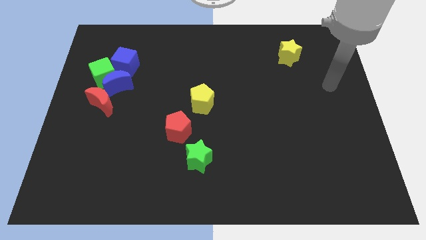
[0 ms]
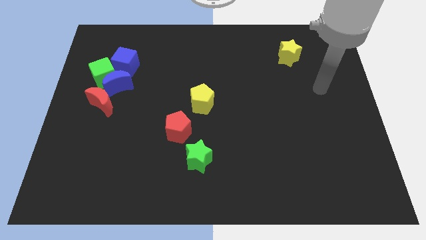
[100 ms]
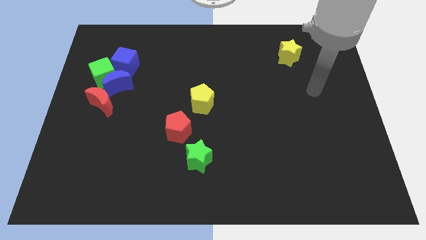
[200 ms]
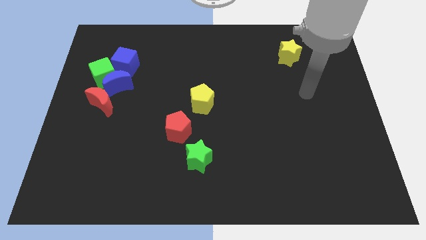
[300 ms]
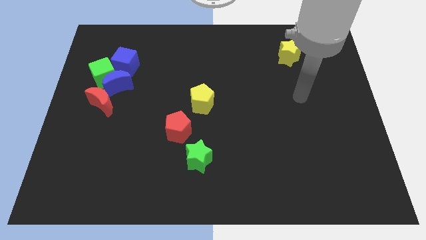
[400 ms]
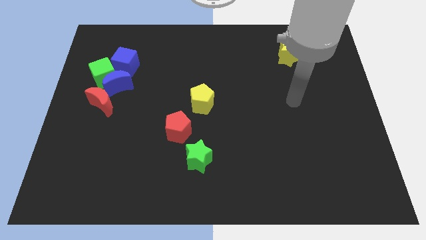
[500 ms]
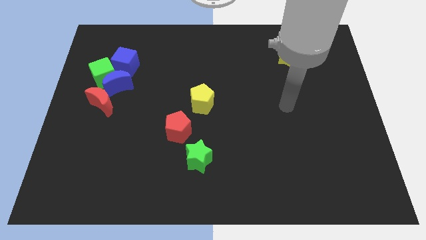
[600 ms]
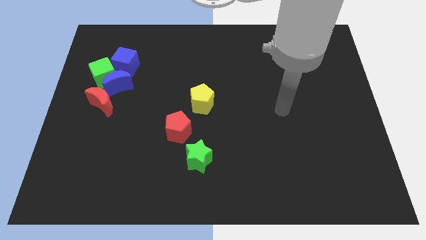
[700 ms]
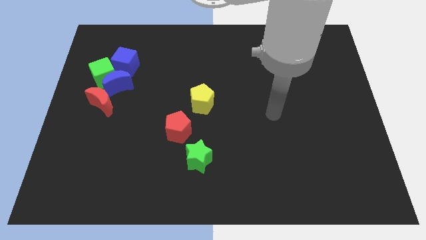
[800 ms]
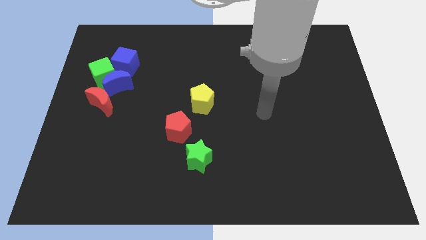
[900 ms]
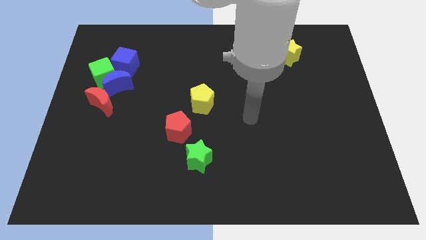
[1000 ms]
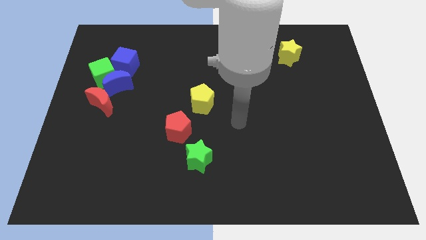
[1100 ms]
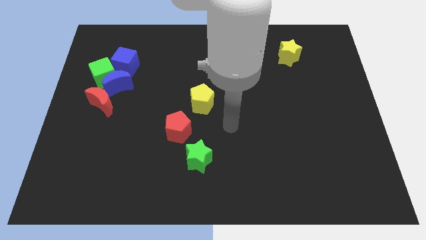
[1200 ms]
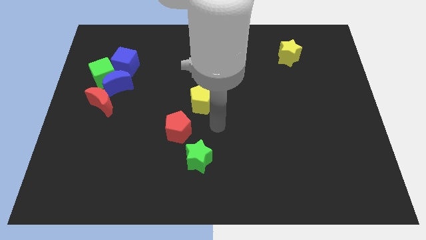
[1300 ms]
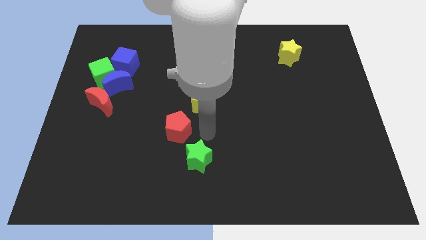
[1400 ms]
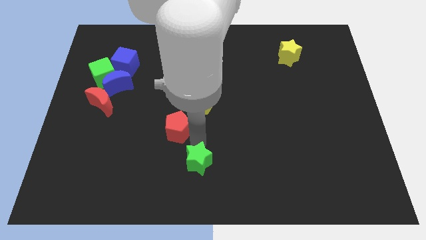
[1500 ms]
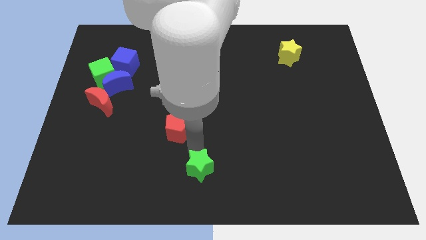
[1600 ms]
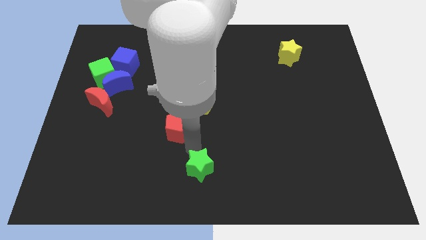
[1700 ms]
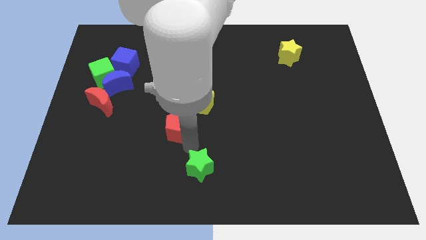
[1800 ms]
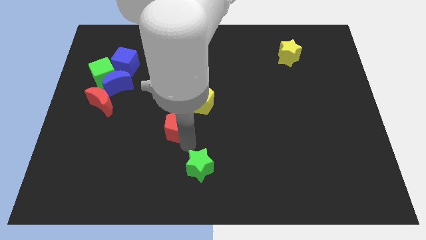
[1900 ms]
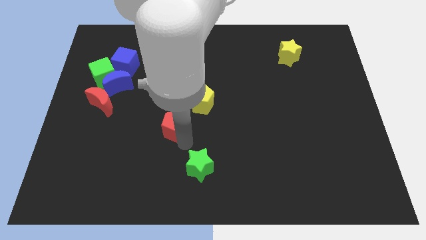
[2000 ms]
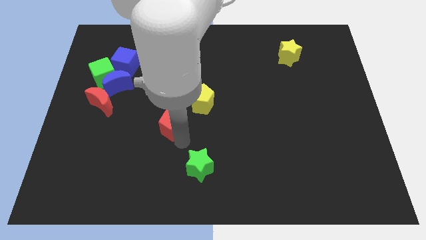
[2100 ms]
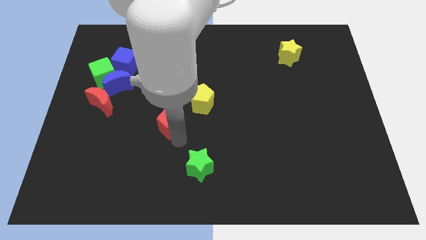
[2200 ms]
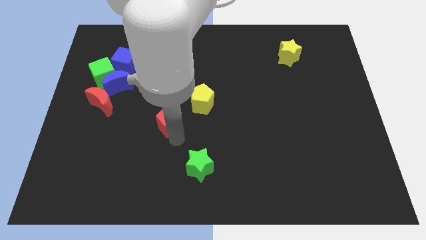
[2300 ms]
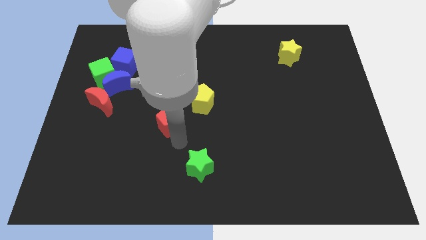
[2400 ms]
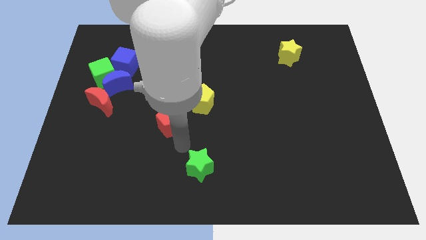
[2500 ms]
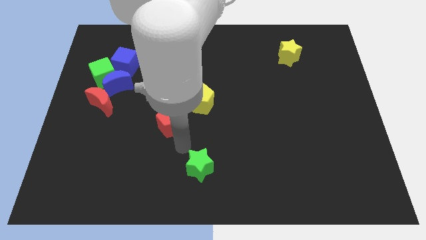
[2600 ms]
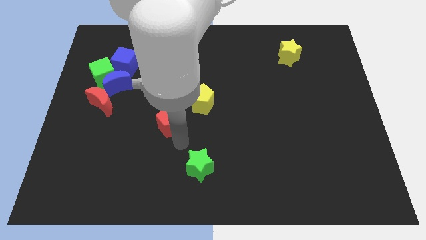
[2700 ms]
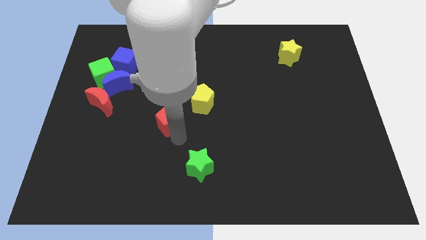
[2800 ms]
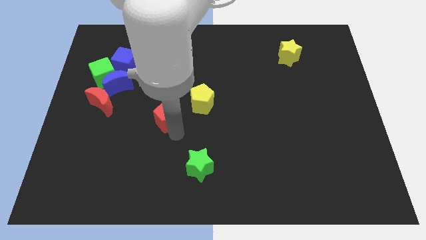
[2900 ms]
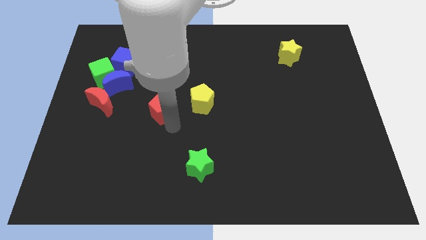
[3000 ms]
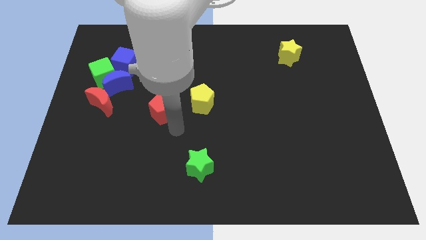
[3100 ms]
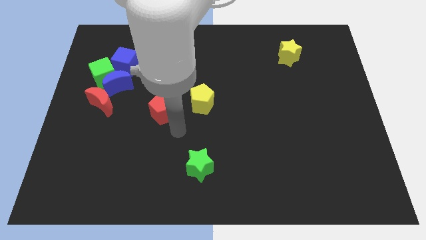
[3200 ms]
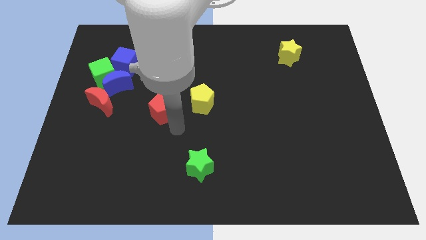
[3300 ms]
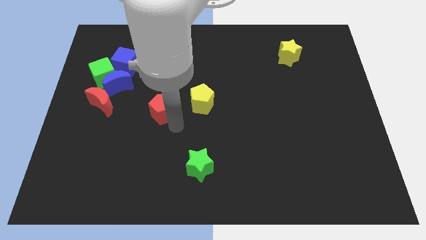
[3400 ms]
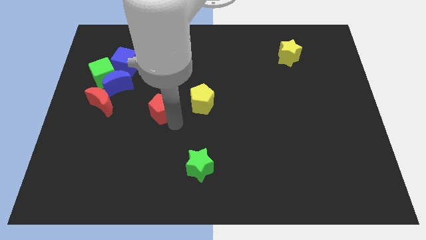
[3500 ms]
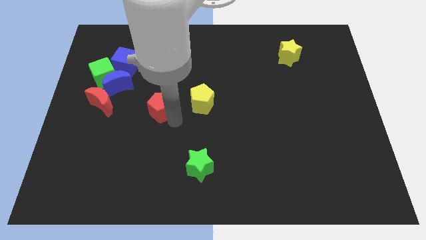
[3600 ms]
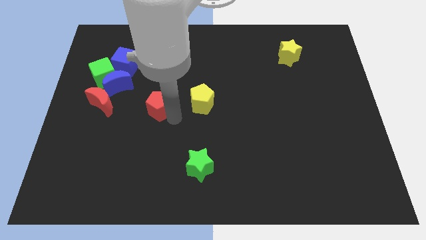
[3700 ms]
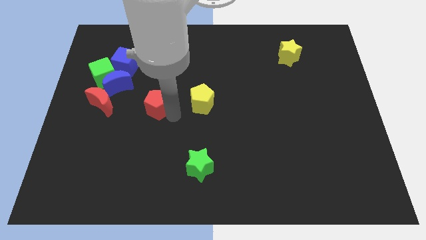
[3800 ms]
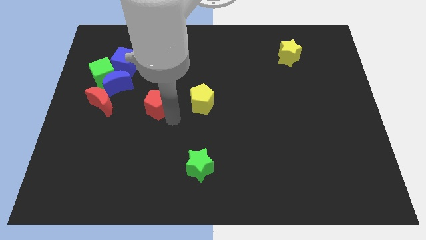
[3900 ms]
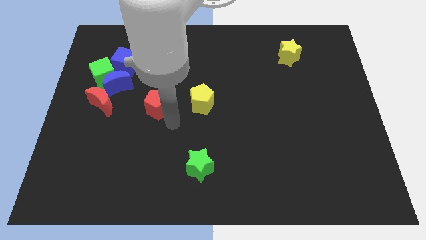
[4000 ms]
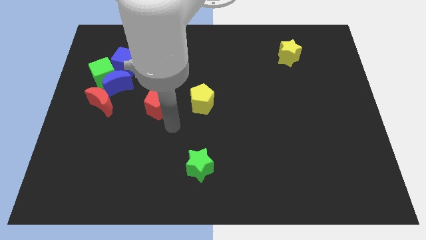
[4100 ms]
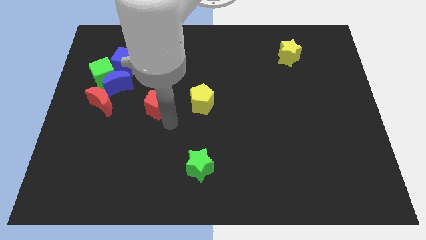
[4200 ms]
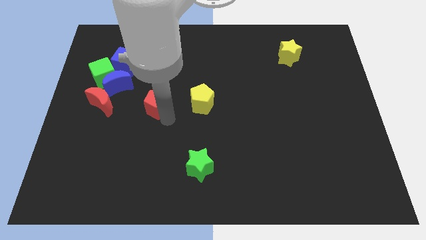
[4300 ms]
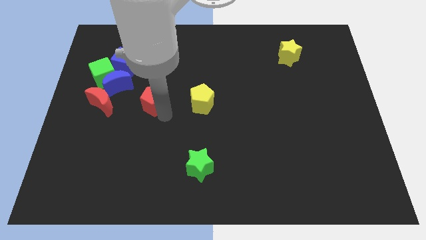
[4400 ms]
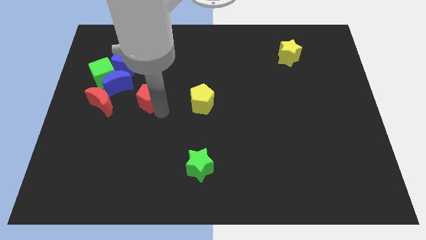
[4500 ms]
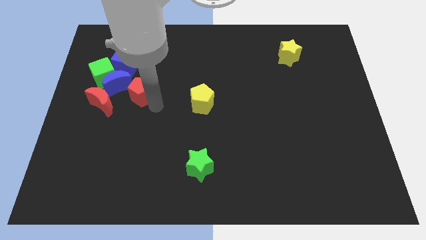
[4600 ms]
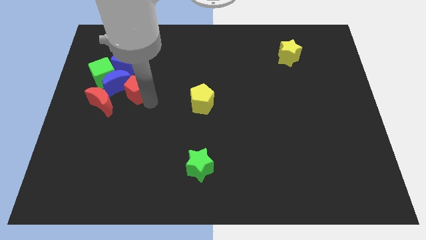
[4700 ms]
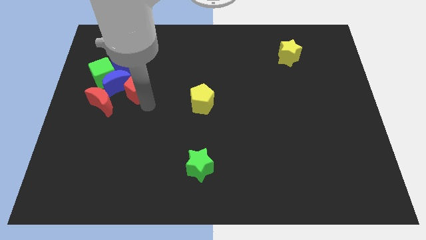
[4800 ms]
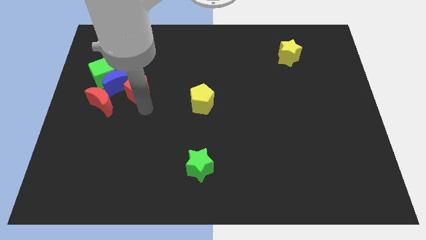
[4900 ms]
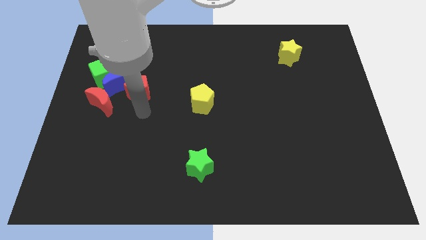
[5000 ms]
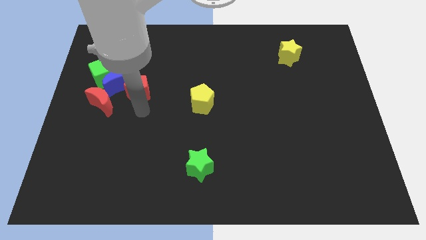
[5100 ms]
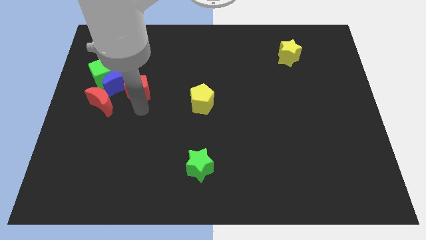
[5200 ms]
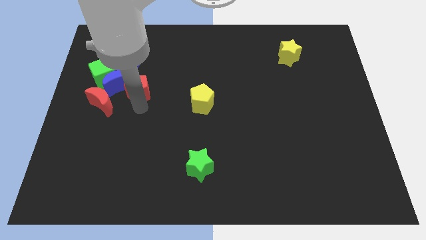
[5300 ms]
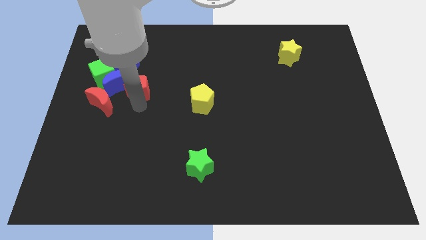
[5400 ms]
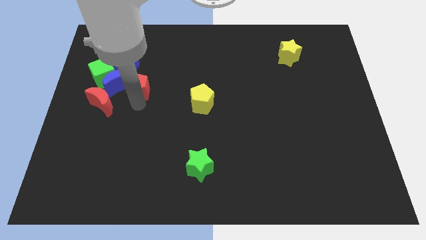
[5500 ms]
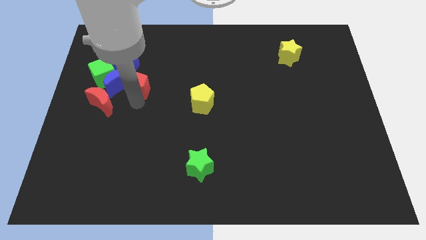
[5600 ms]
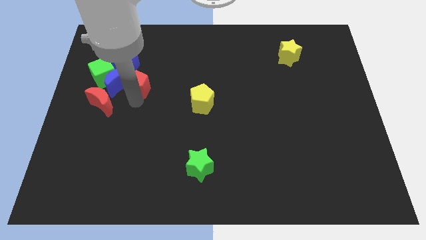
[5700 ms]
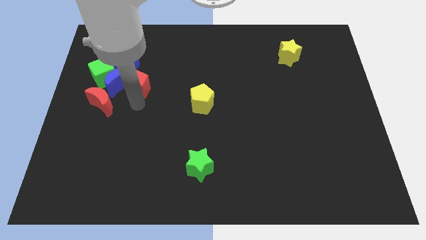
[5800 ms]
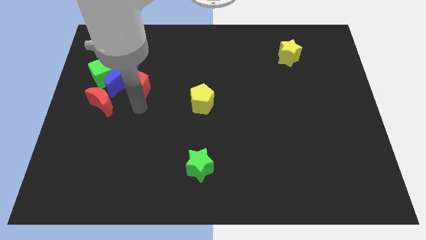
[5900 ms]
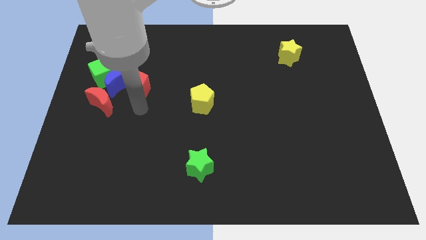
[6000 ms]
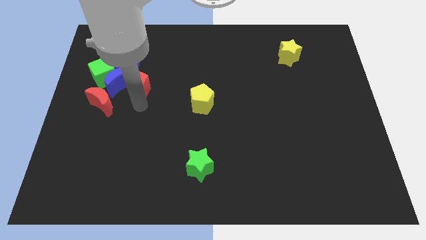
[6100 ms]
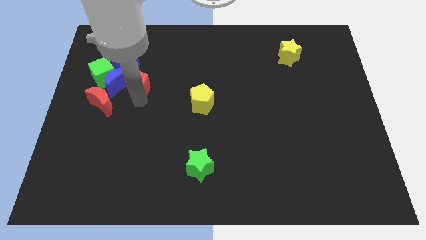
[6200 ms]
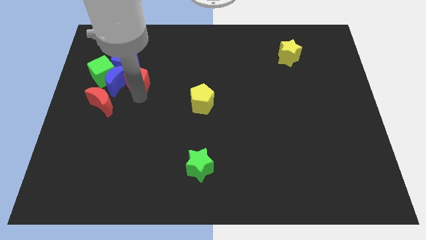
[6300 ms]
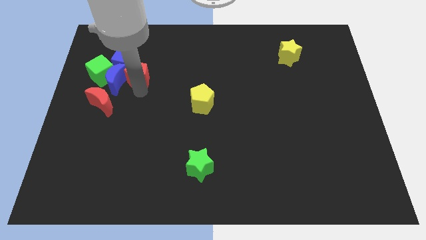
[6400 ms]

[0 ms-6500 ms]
push the red pentagon next to the blue cube

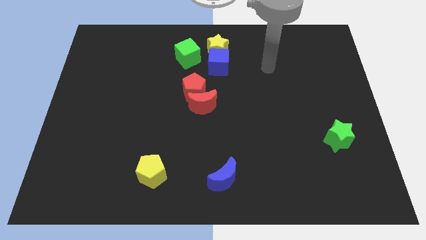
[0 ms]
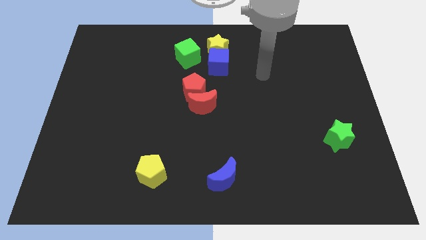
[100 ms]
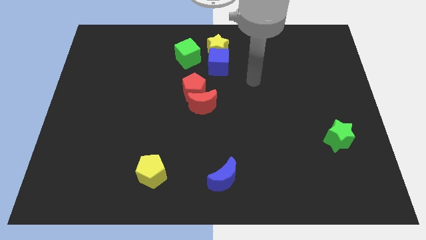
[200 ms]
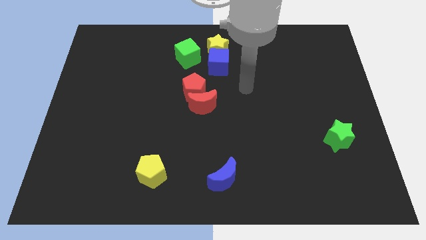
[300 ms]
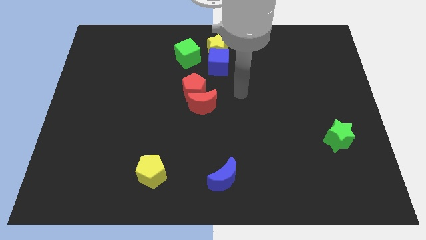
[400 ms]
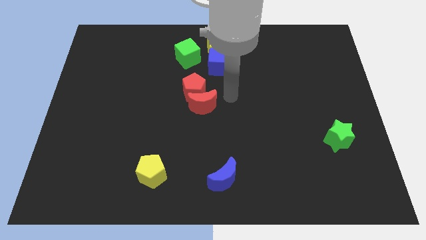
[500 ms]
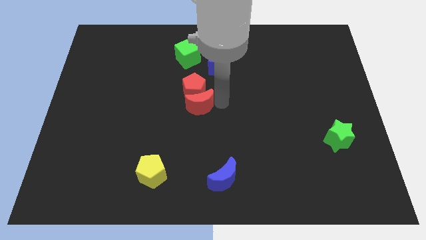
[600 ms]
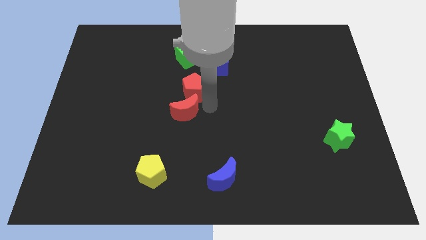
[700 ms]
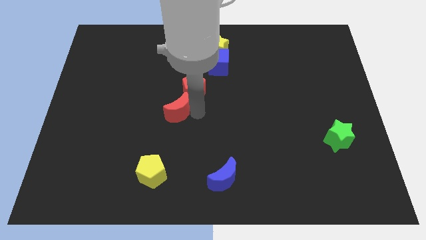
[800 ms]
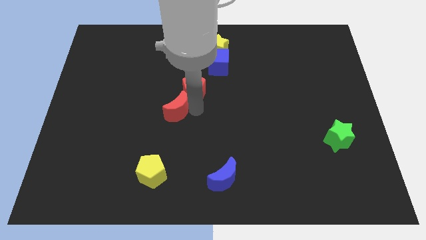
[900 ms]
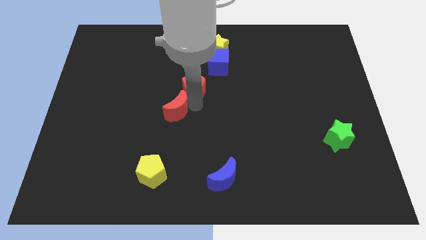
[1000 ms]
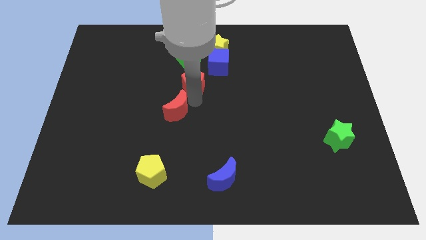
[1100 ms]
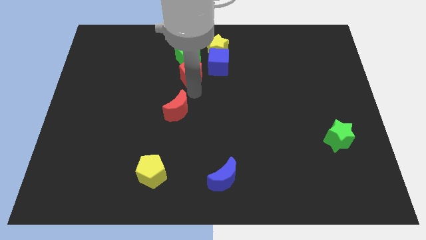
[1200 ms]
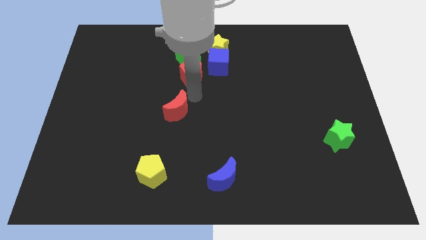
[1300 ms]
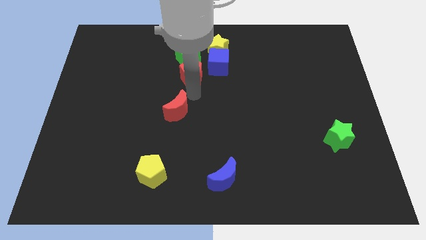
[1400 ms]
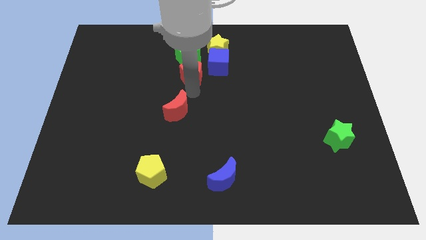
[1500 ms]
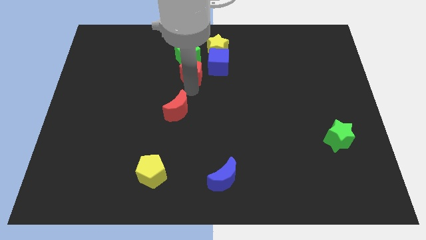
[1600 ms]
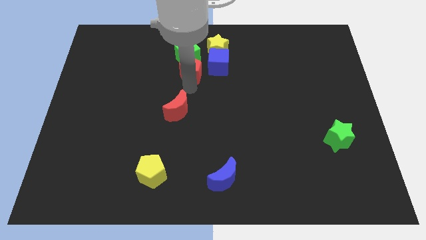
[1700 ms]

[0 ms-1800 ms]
put the red pentagon next to the green cube
